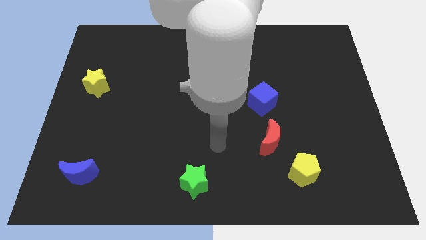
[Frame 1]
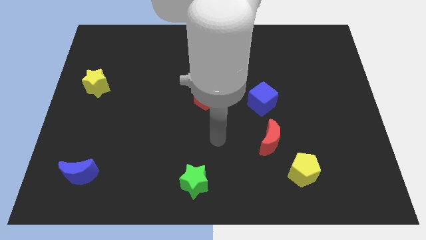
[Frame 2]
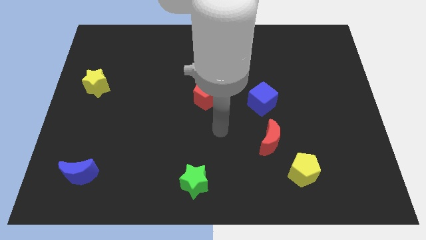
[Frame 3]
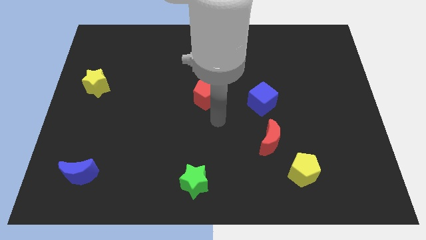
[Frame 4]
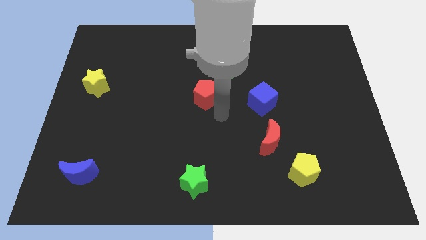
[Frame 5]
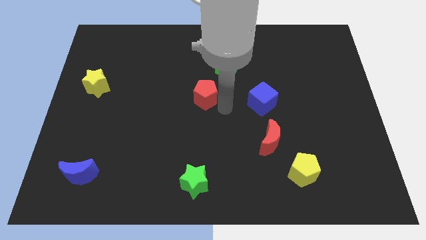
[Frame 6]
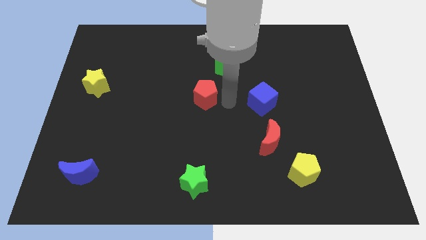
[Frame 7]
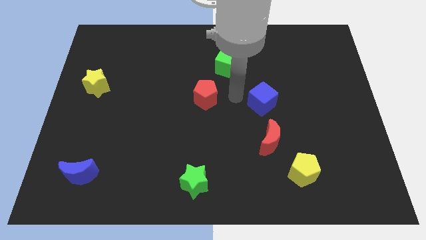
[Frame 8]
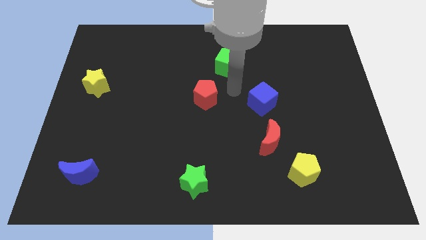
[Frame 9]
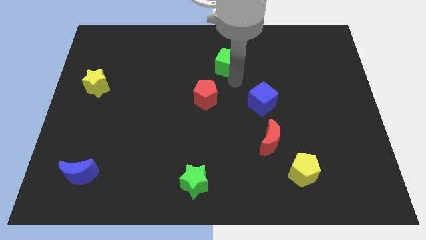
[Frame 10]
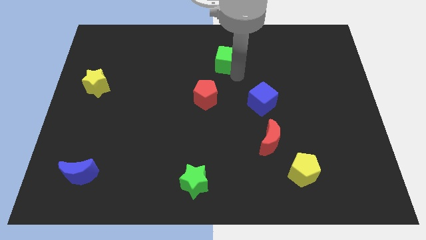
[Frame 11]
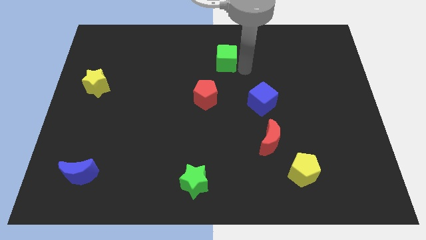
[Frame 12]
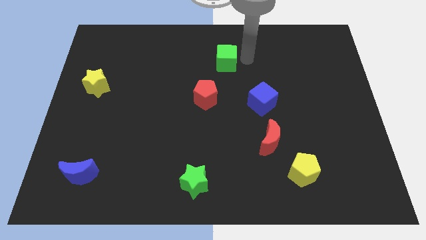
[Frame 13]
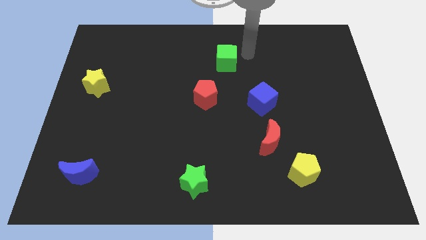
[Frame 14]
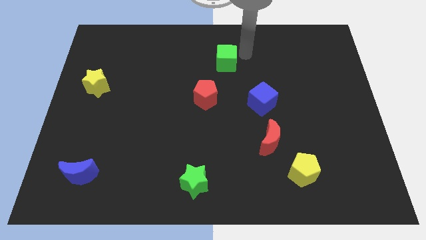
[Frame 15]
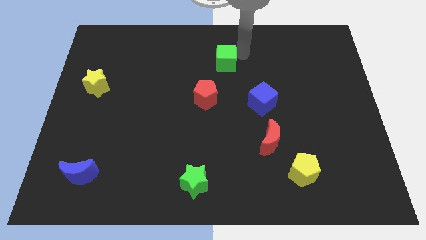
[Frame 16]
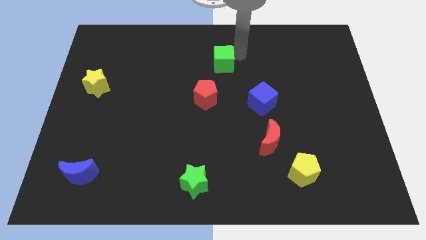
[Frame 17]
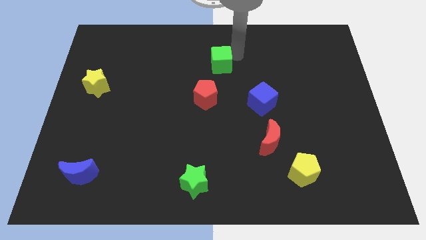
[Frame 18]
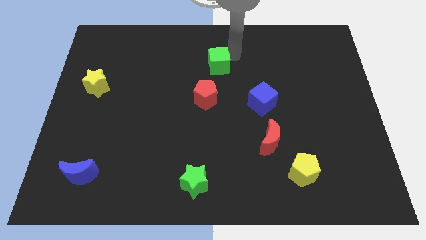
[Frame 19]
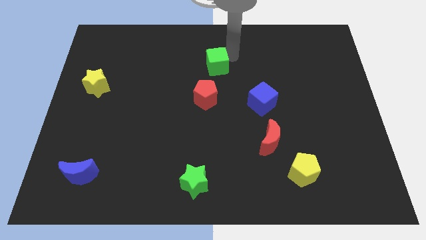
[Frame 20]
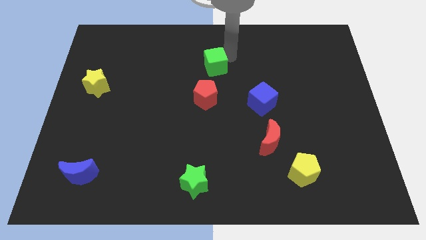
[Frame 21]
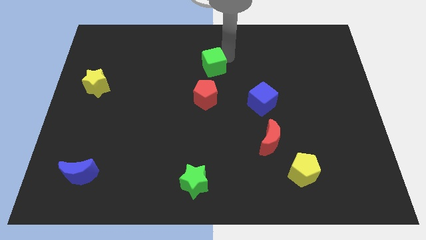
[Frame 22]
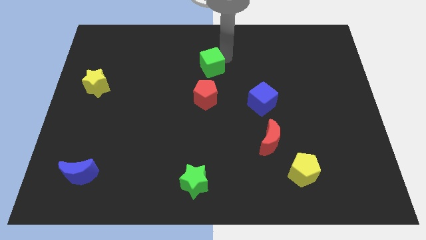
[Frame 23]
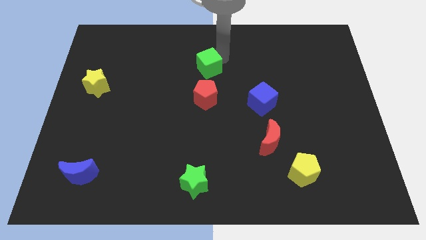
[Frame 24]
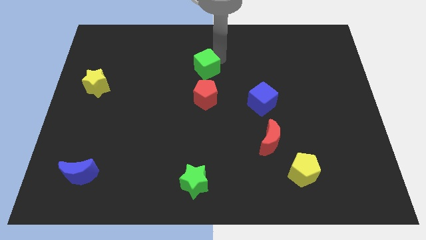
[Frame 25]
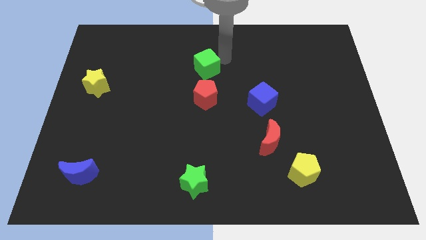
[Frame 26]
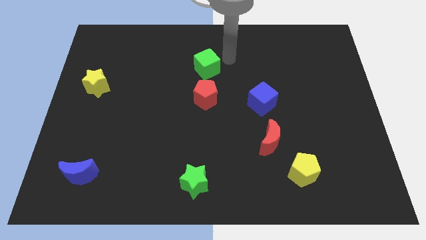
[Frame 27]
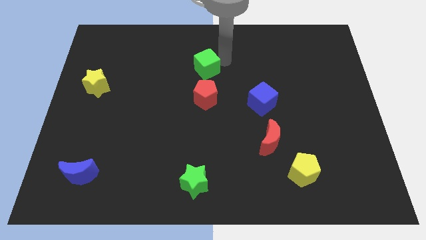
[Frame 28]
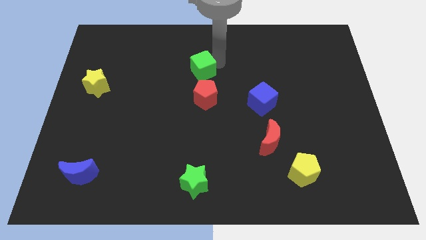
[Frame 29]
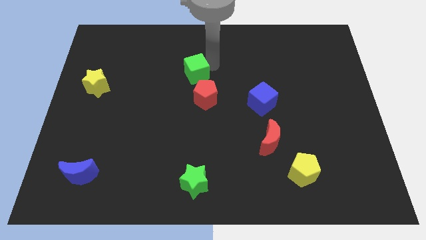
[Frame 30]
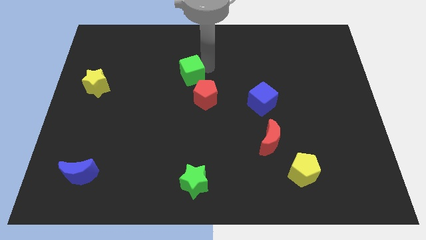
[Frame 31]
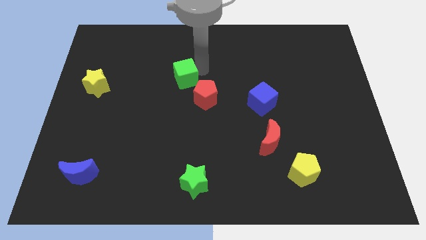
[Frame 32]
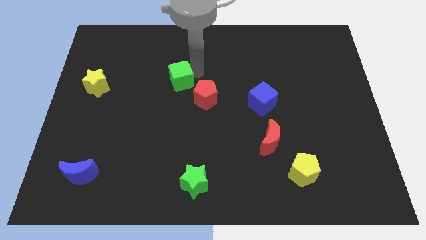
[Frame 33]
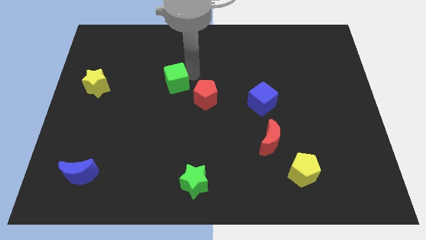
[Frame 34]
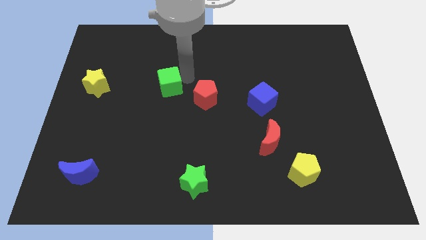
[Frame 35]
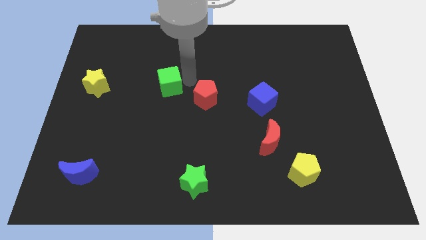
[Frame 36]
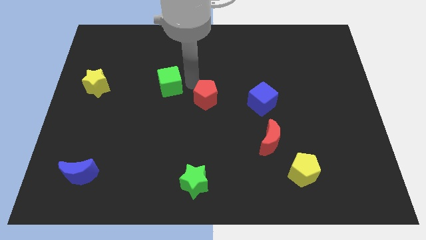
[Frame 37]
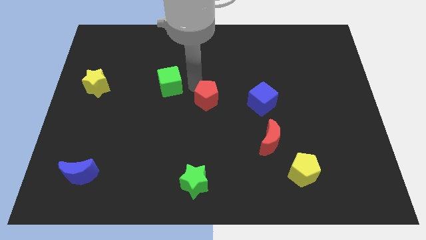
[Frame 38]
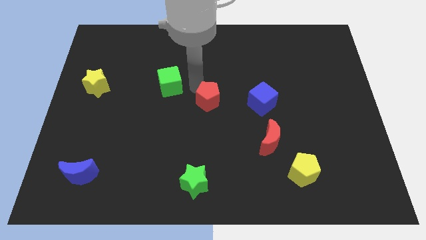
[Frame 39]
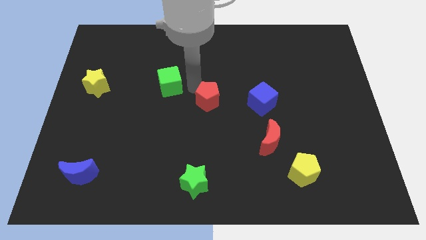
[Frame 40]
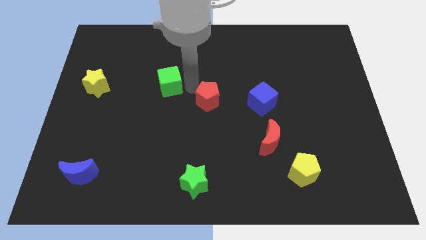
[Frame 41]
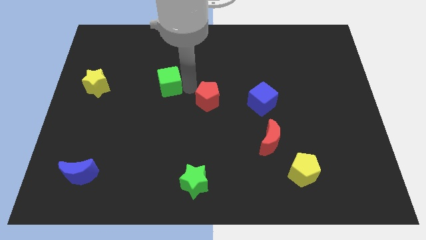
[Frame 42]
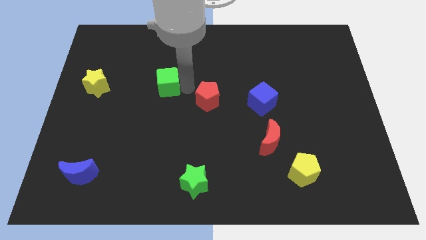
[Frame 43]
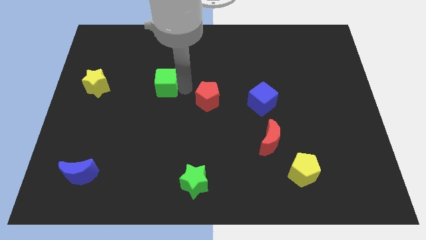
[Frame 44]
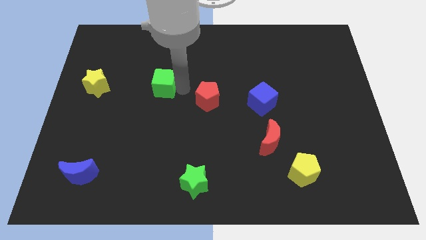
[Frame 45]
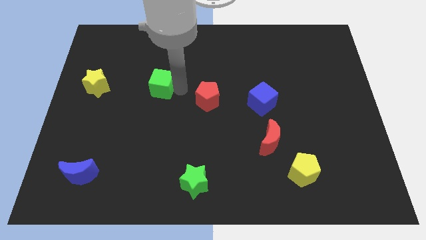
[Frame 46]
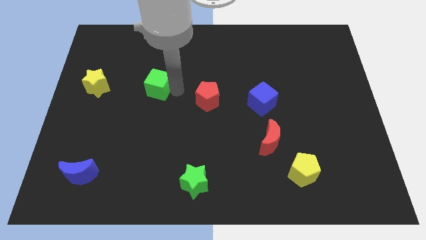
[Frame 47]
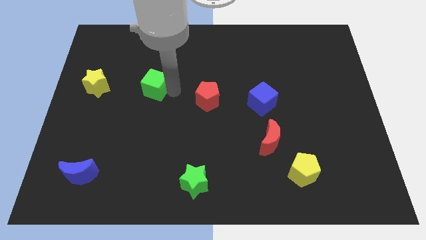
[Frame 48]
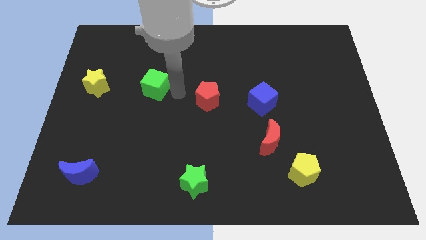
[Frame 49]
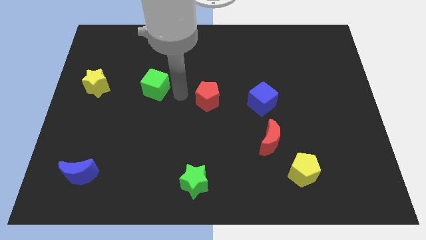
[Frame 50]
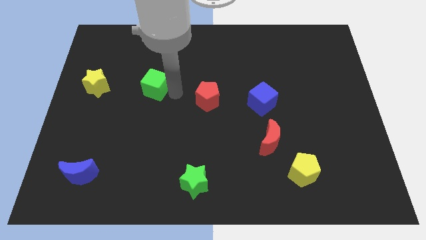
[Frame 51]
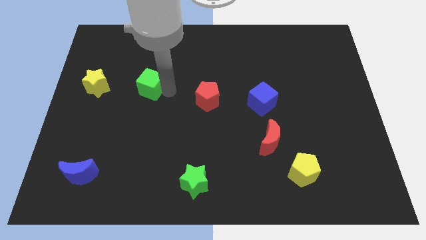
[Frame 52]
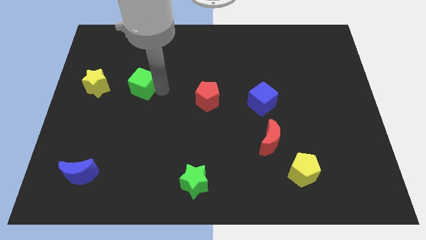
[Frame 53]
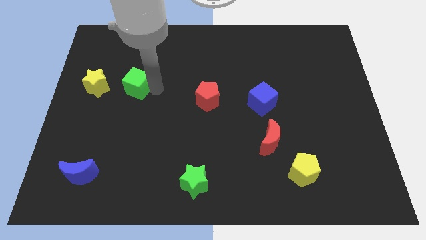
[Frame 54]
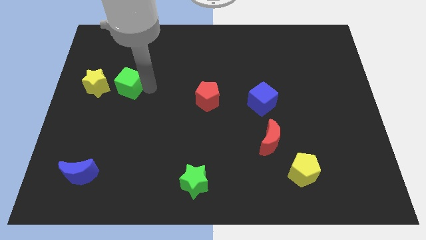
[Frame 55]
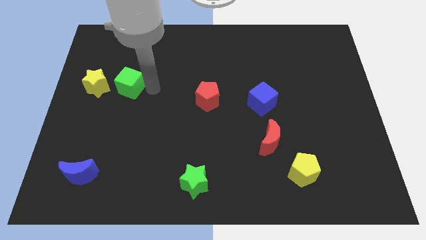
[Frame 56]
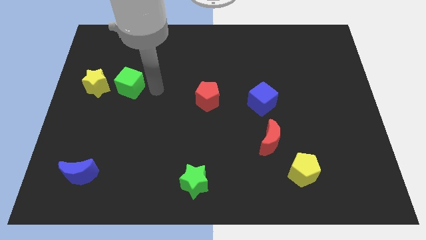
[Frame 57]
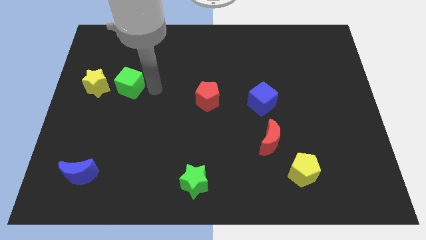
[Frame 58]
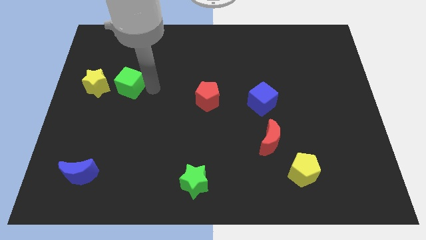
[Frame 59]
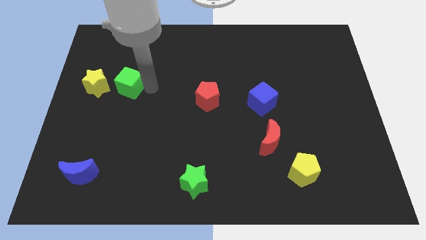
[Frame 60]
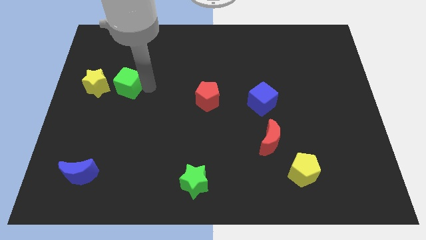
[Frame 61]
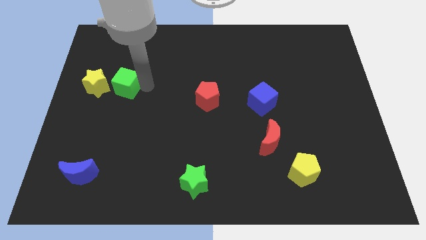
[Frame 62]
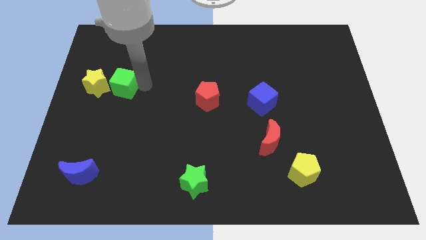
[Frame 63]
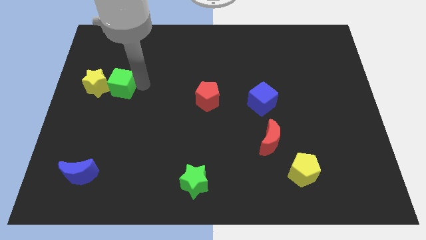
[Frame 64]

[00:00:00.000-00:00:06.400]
move the green cube close to the yellow star
